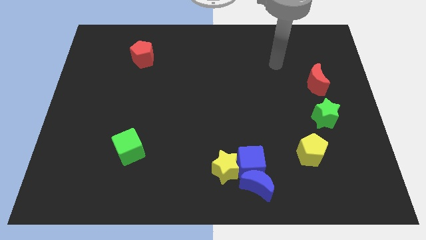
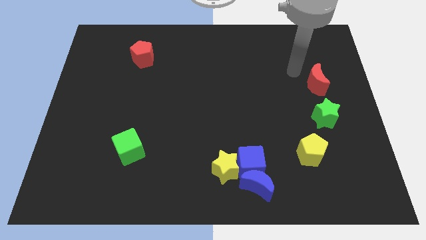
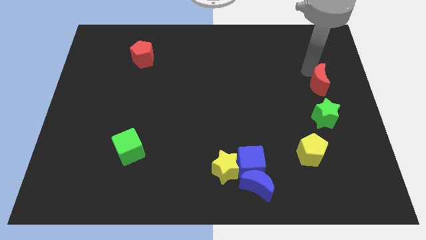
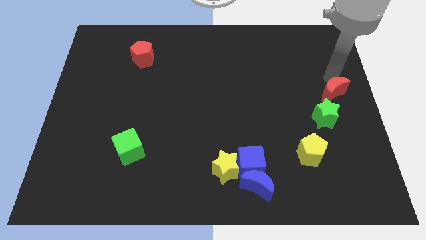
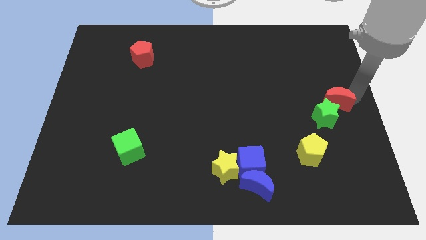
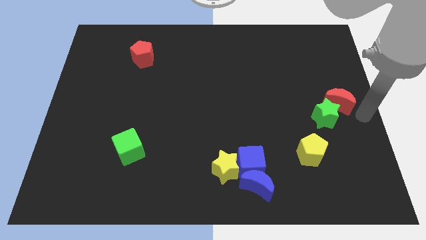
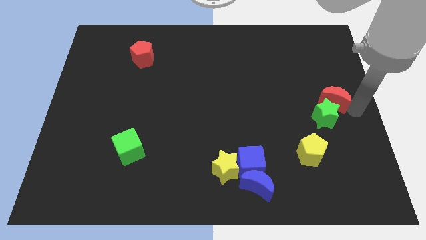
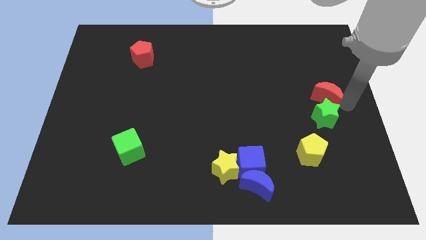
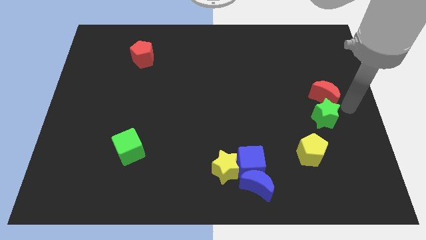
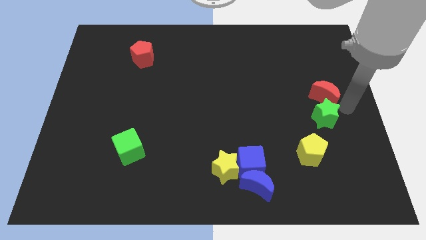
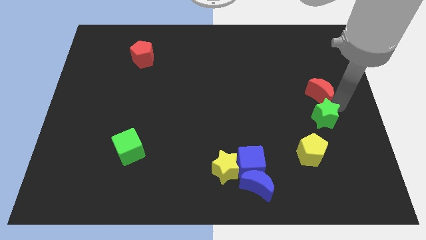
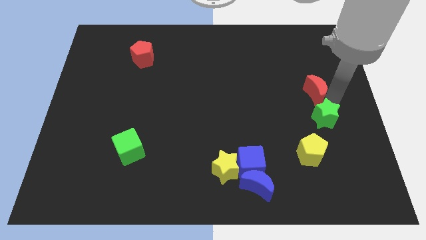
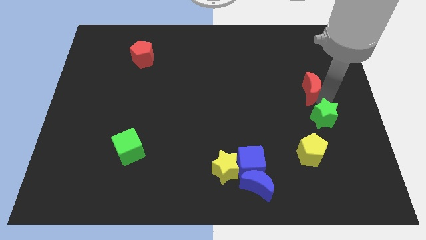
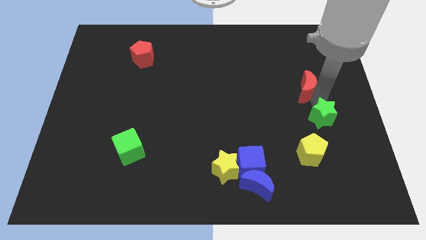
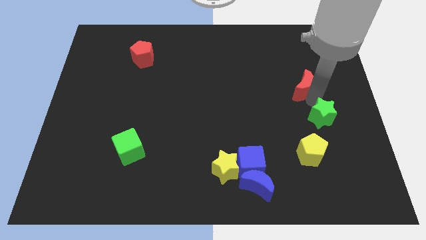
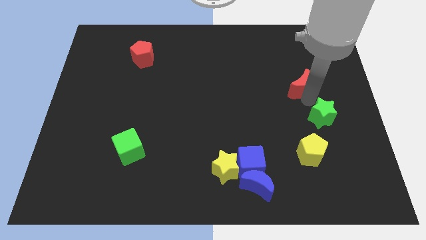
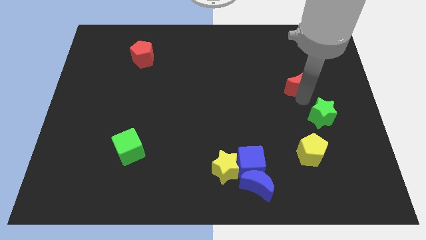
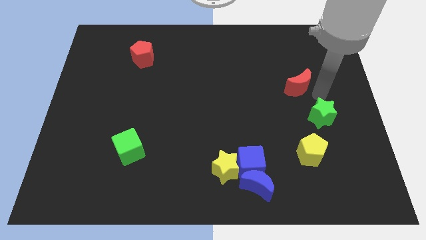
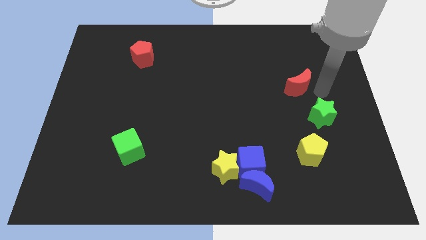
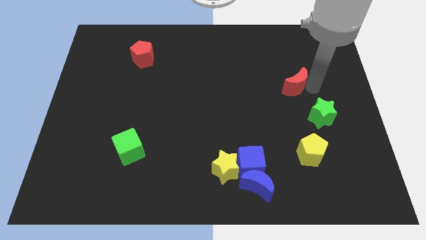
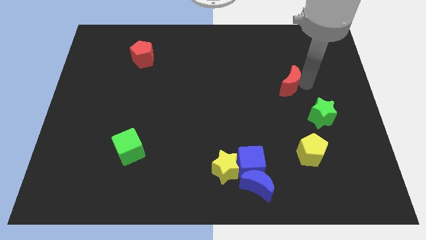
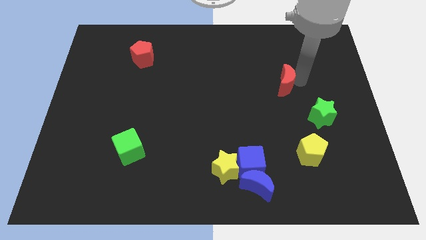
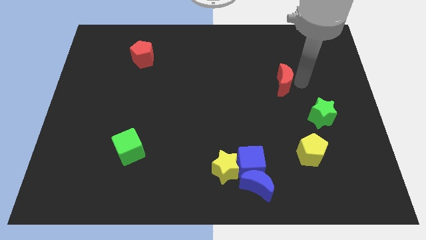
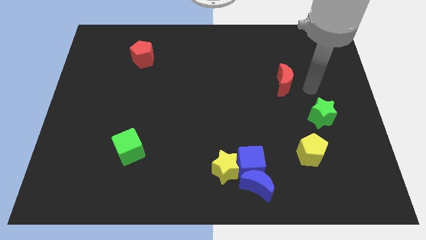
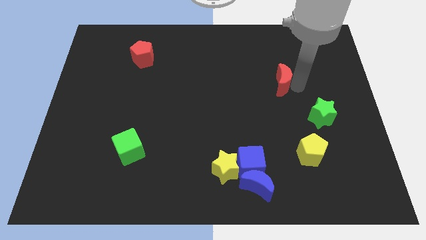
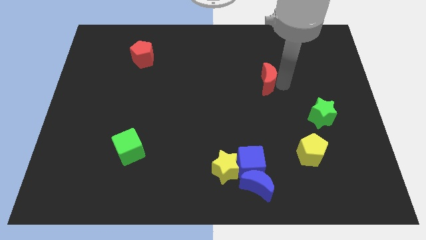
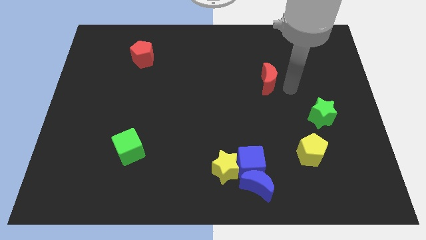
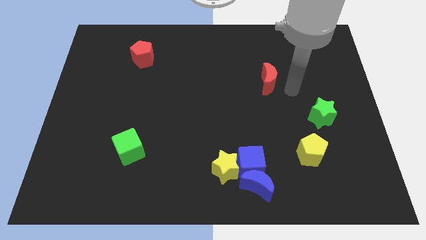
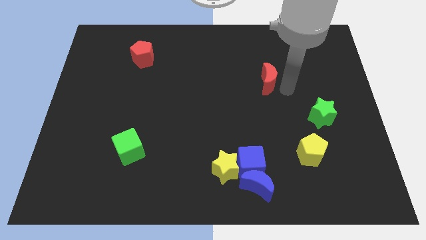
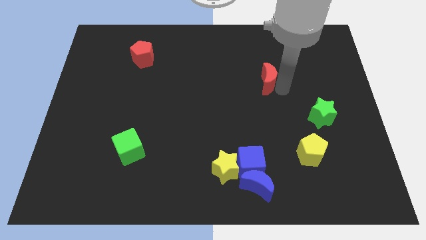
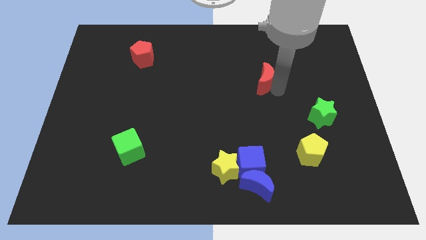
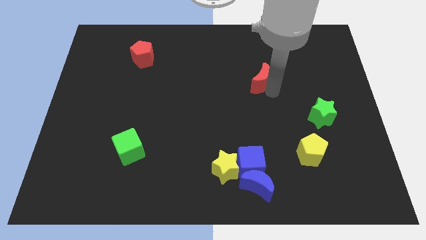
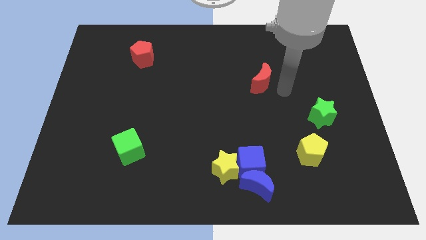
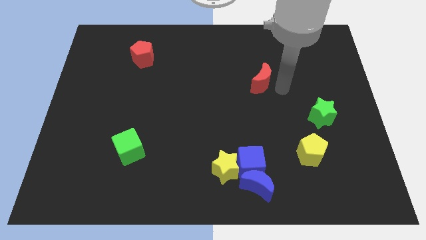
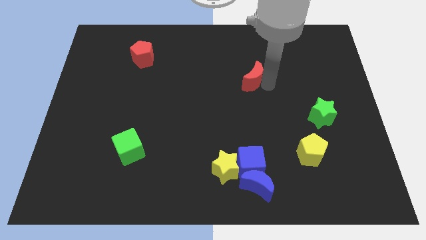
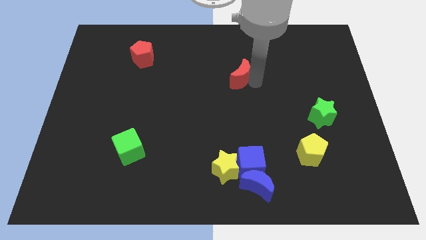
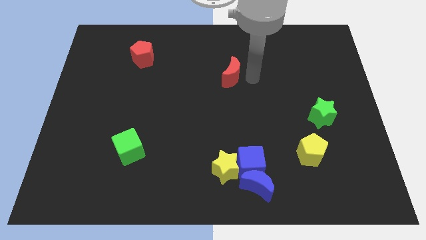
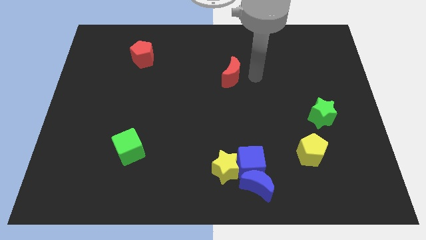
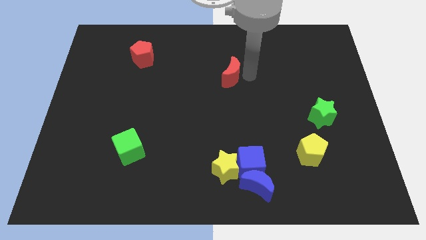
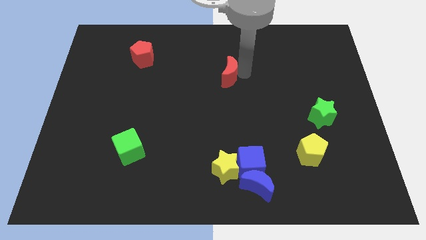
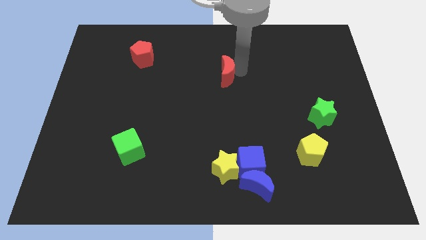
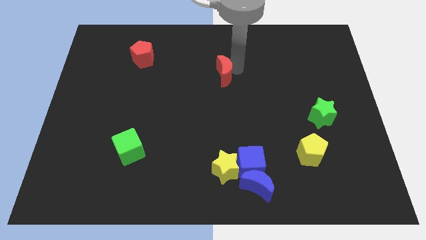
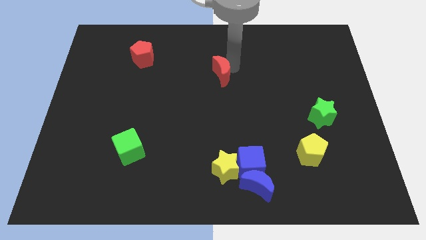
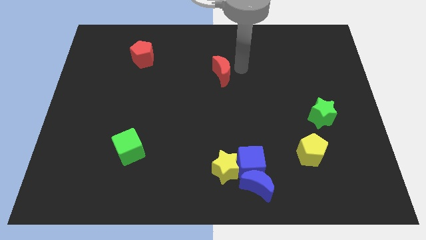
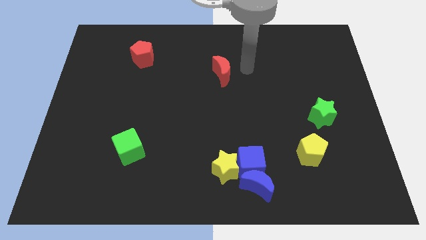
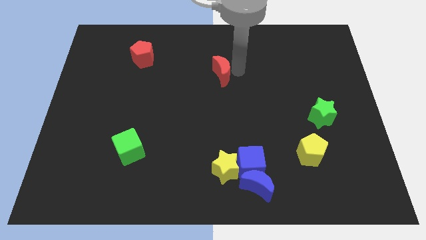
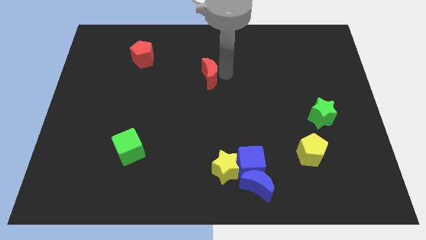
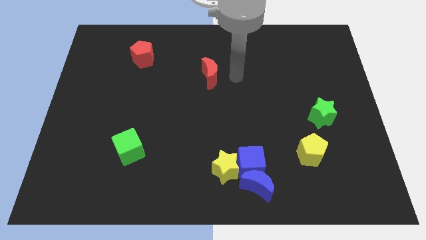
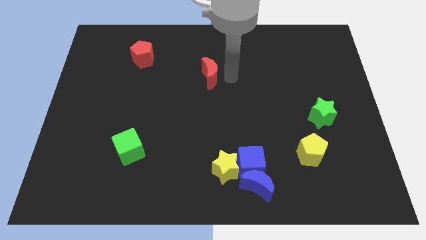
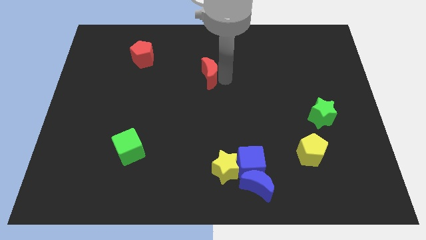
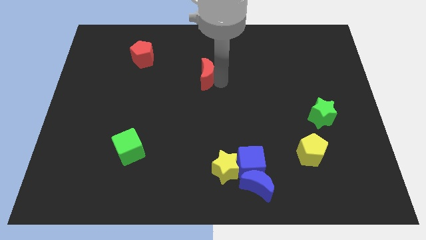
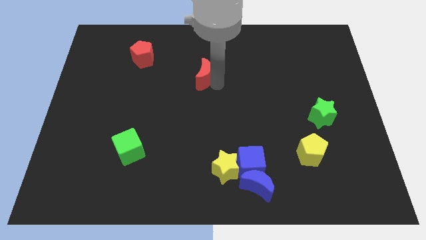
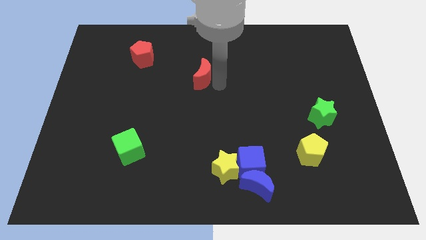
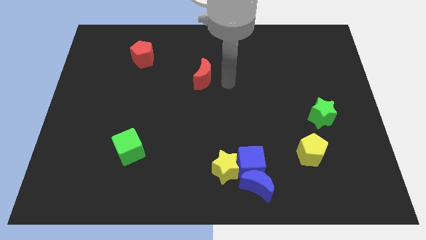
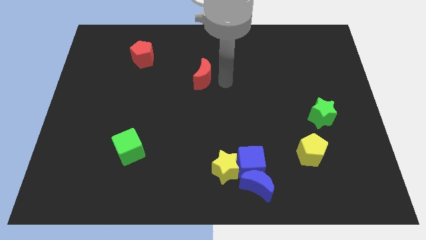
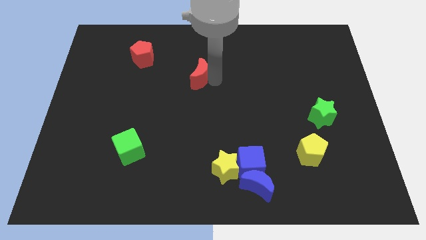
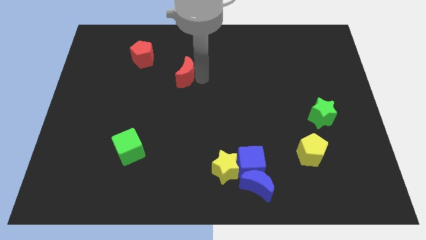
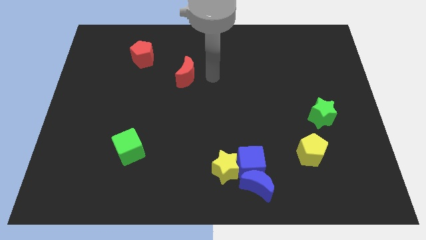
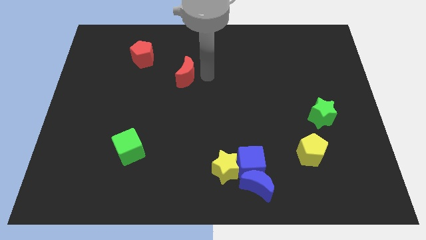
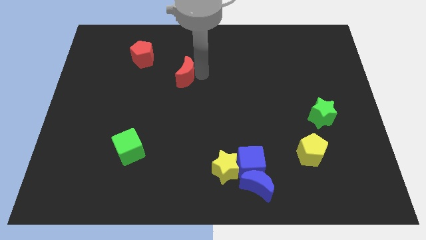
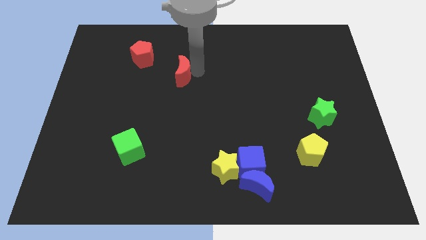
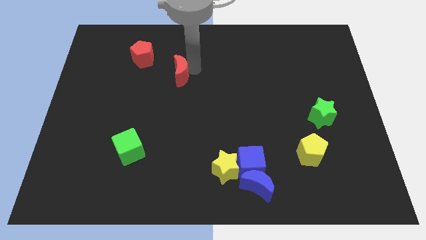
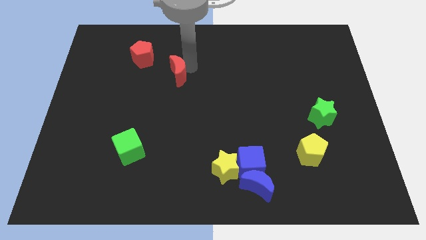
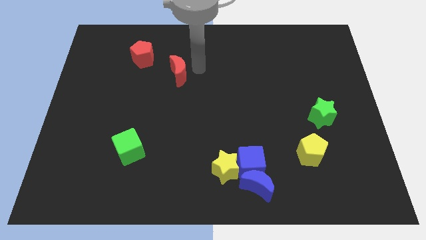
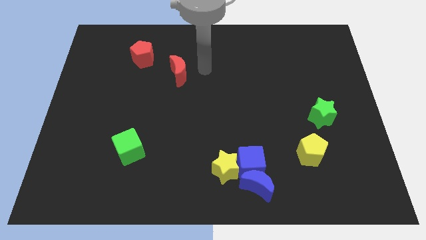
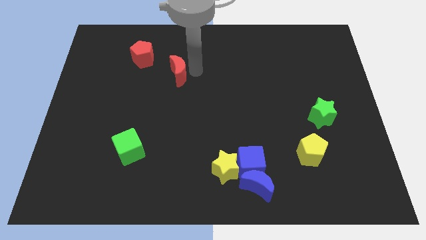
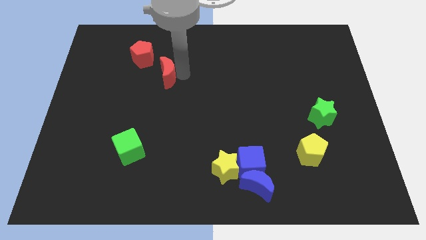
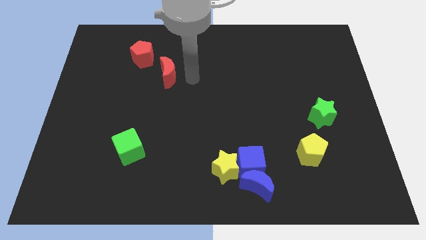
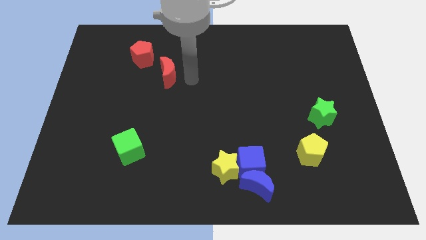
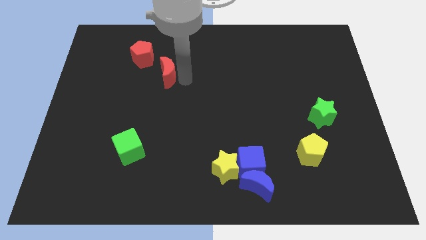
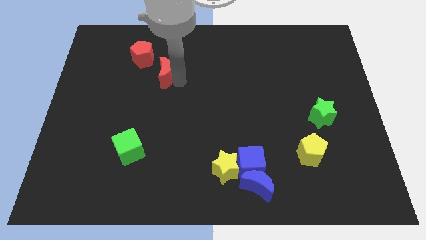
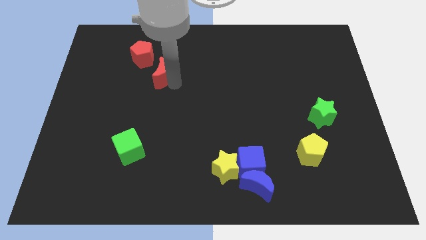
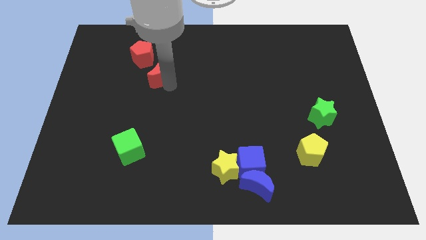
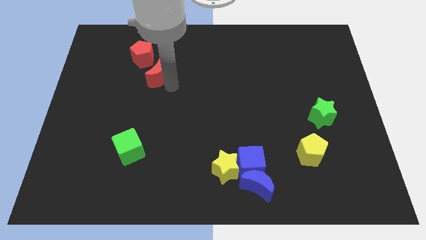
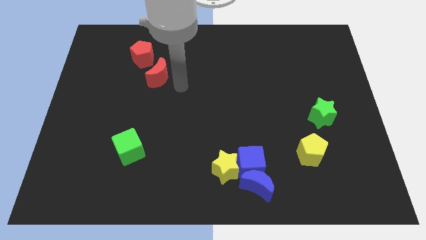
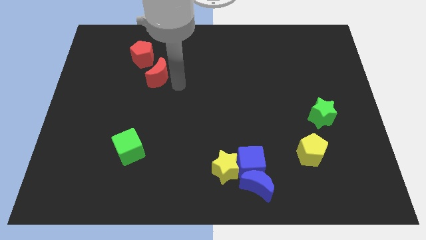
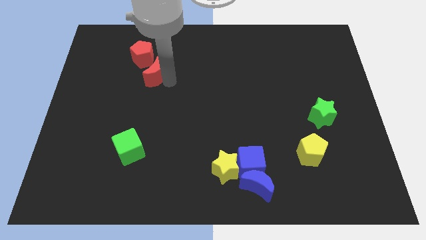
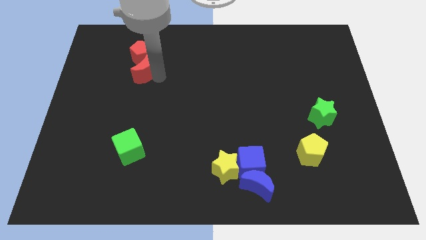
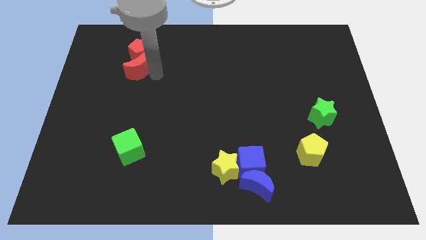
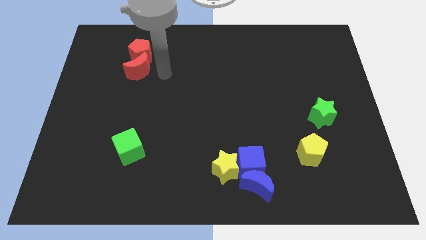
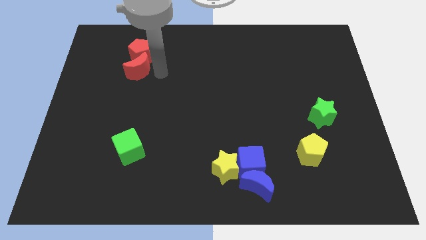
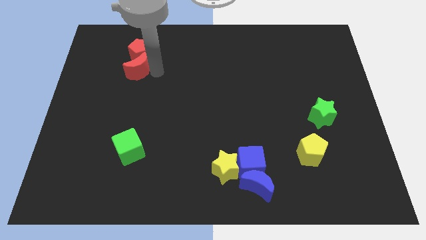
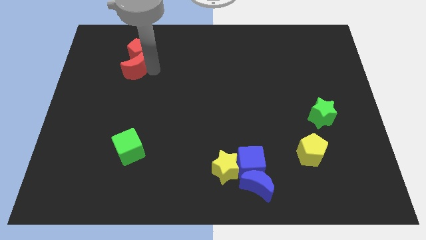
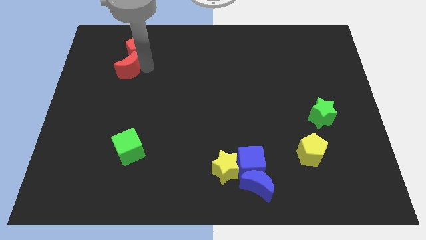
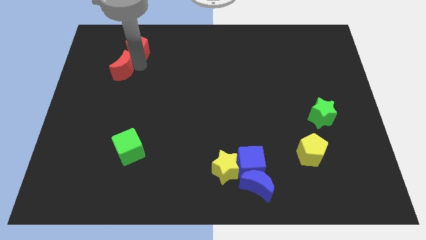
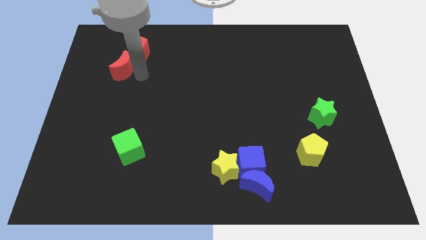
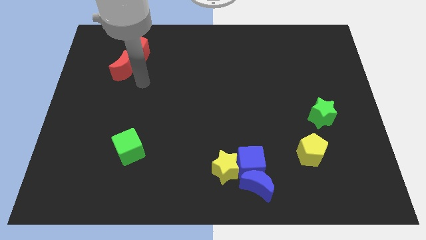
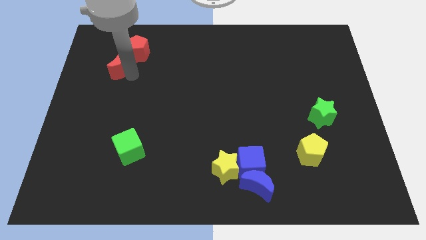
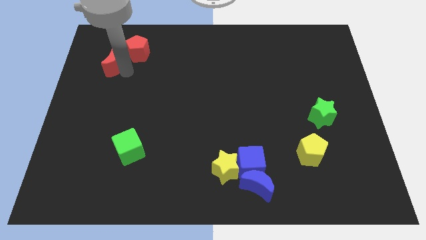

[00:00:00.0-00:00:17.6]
move the red moon to the left of the red pentagon
